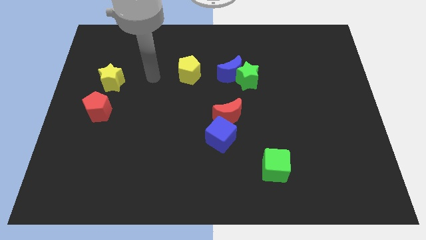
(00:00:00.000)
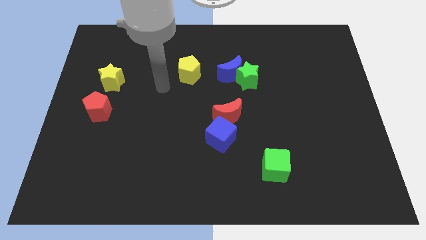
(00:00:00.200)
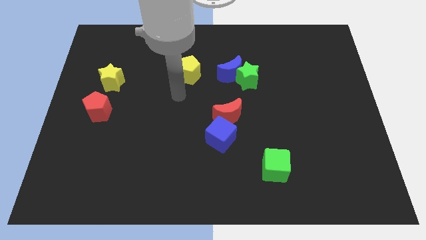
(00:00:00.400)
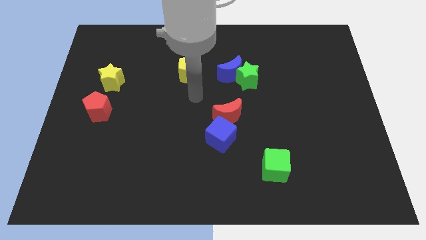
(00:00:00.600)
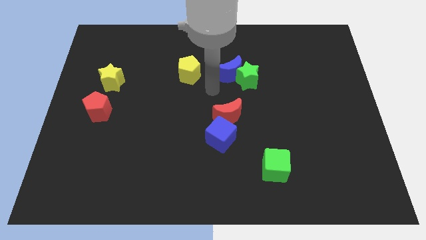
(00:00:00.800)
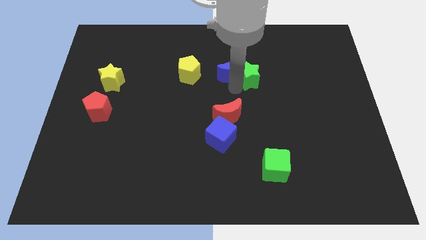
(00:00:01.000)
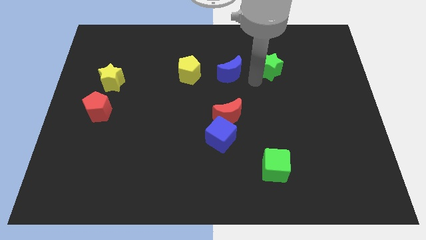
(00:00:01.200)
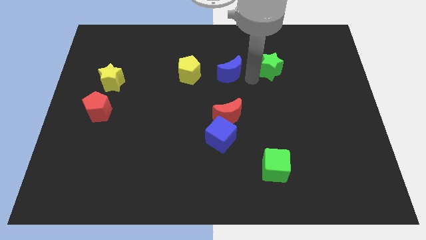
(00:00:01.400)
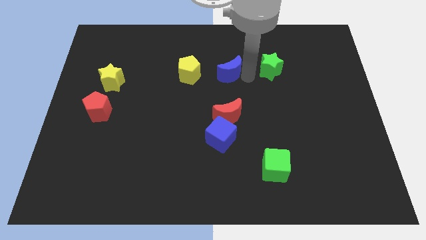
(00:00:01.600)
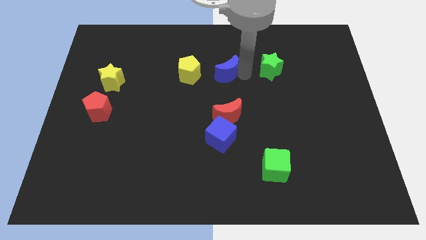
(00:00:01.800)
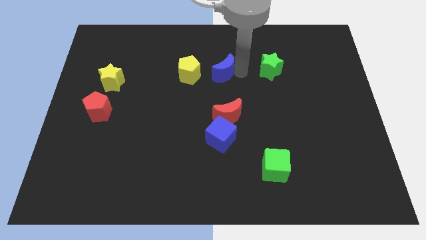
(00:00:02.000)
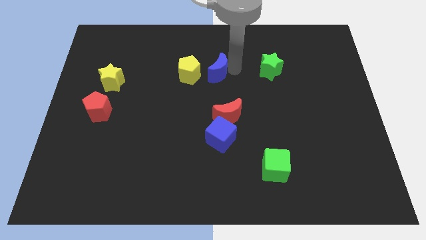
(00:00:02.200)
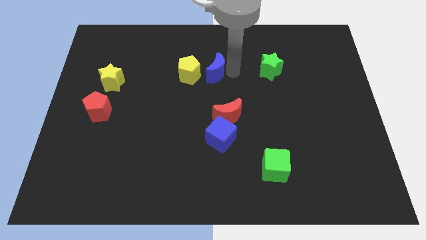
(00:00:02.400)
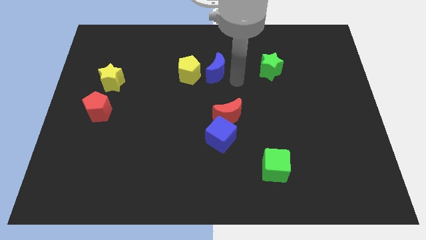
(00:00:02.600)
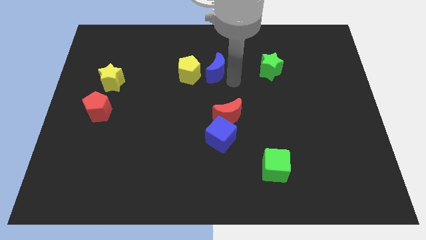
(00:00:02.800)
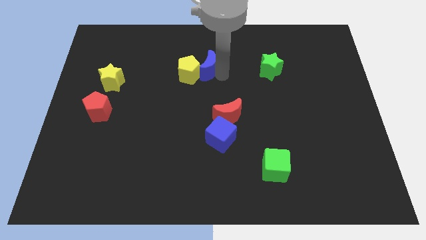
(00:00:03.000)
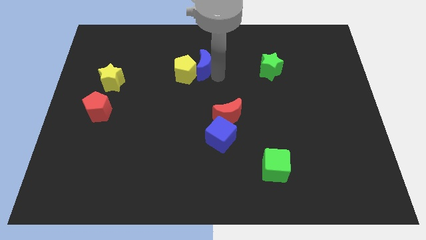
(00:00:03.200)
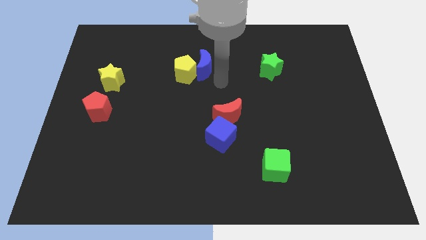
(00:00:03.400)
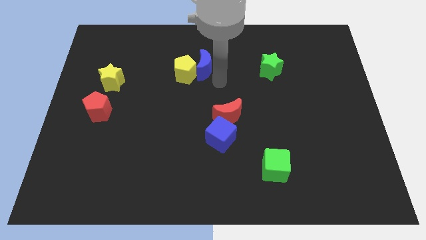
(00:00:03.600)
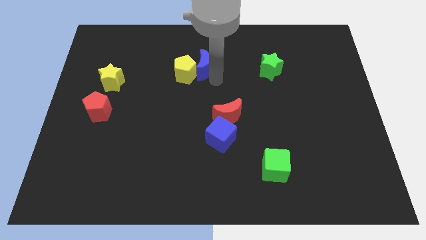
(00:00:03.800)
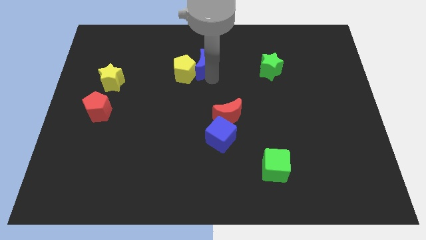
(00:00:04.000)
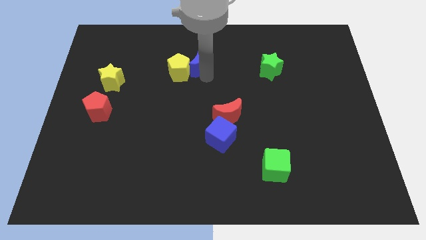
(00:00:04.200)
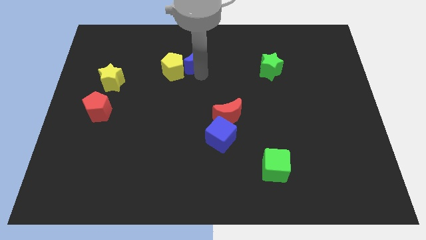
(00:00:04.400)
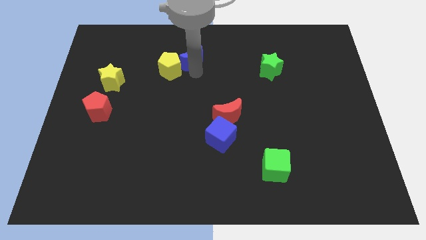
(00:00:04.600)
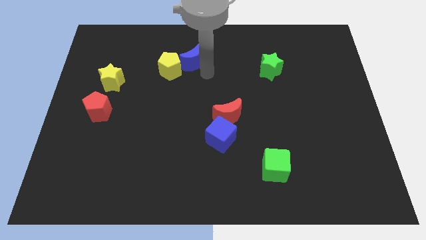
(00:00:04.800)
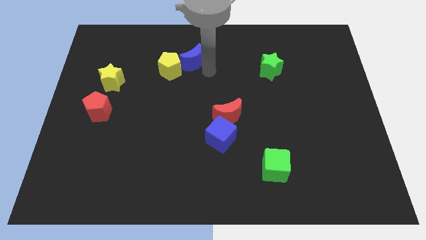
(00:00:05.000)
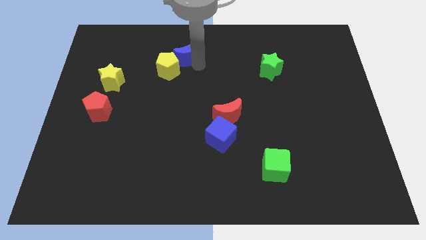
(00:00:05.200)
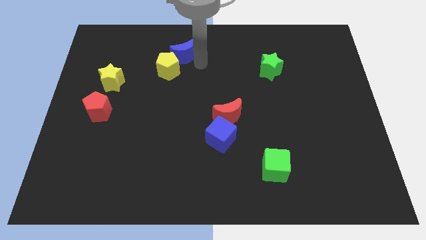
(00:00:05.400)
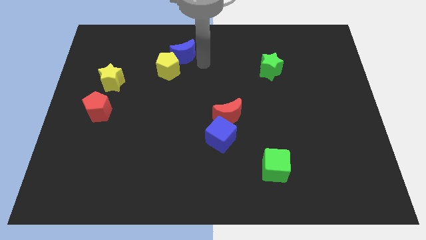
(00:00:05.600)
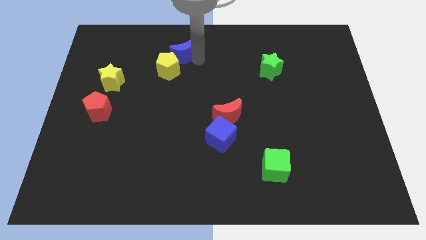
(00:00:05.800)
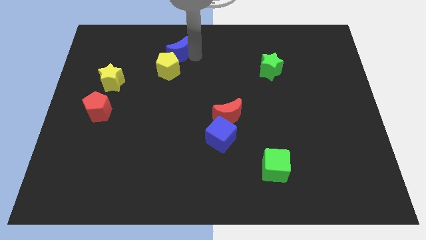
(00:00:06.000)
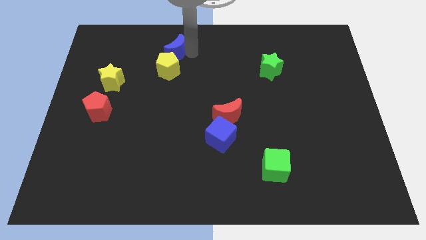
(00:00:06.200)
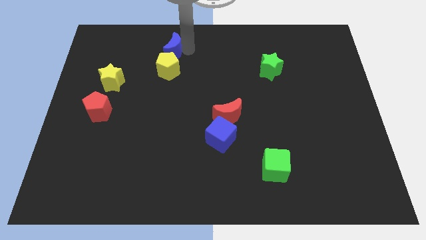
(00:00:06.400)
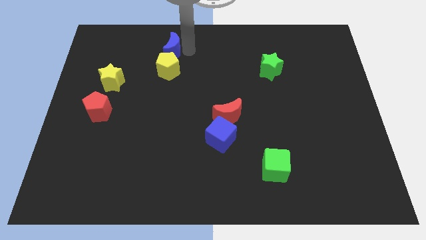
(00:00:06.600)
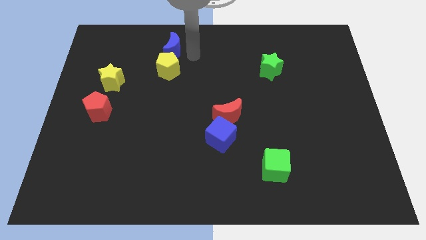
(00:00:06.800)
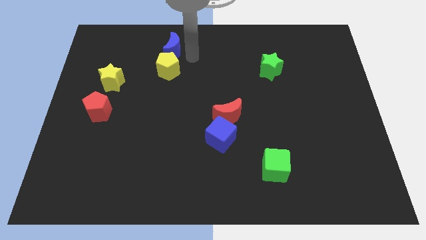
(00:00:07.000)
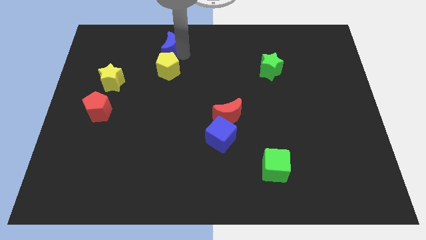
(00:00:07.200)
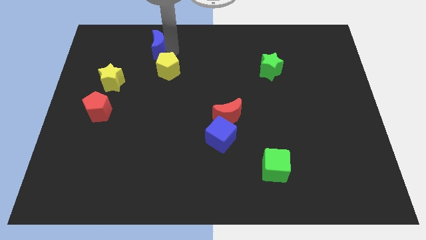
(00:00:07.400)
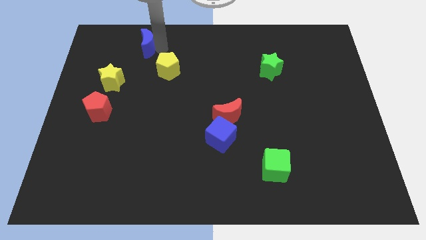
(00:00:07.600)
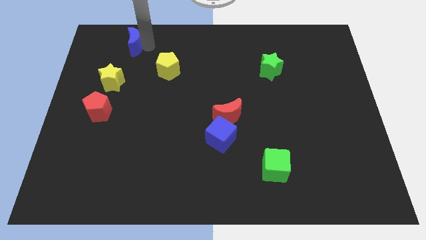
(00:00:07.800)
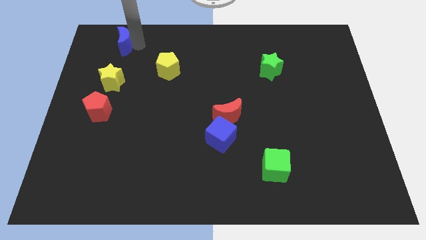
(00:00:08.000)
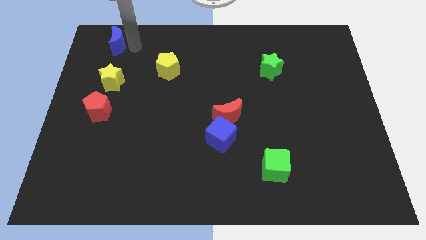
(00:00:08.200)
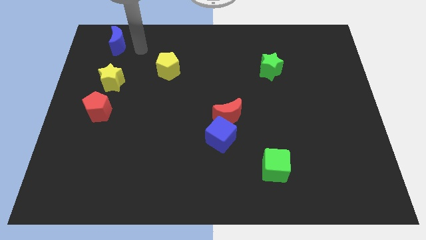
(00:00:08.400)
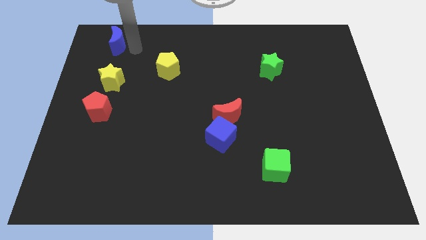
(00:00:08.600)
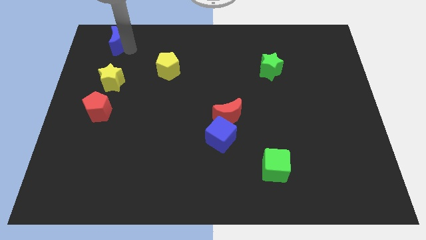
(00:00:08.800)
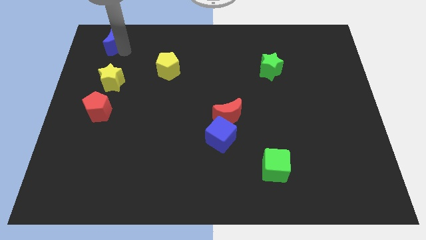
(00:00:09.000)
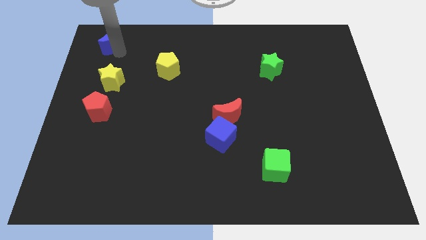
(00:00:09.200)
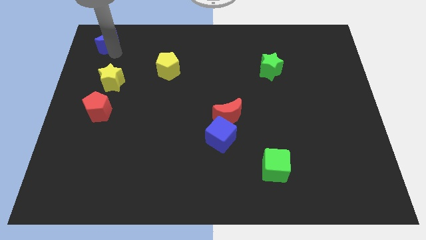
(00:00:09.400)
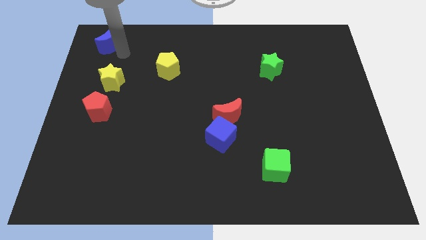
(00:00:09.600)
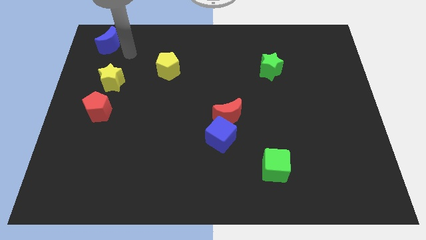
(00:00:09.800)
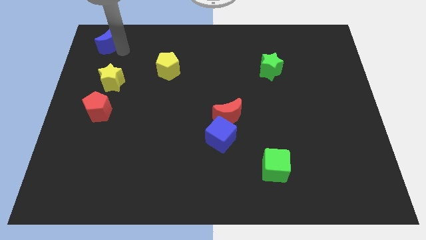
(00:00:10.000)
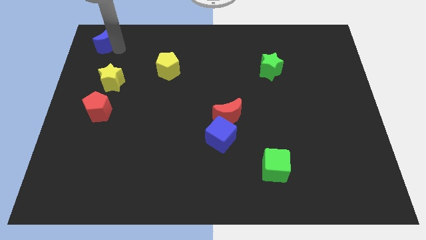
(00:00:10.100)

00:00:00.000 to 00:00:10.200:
move the blue moon to the top left
